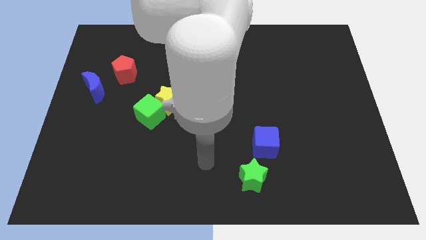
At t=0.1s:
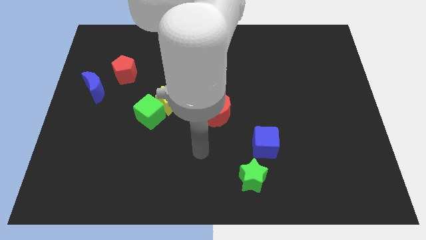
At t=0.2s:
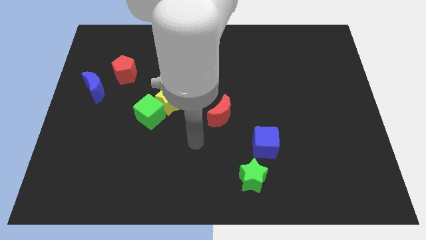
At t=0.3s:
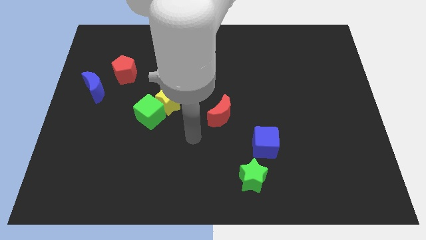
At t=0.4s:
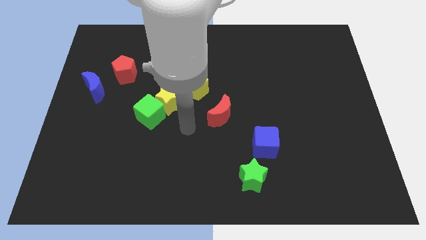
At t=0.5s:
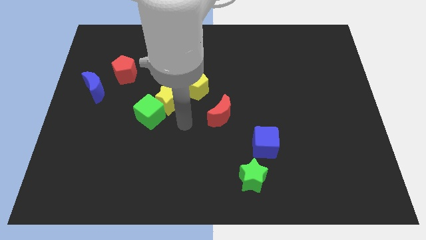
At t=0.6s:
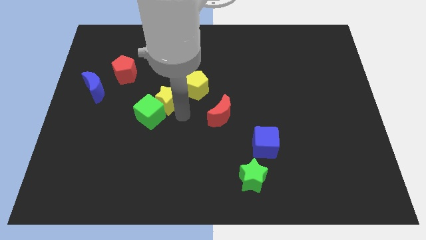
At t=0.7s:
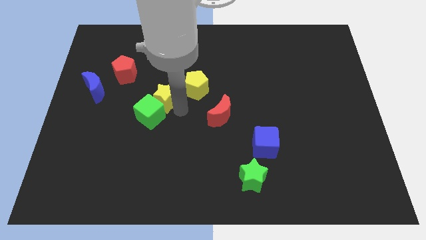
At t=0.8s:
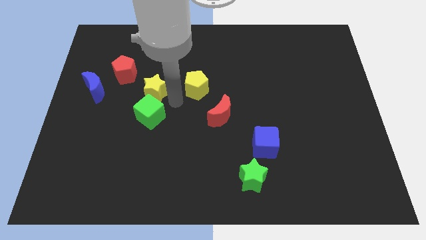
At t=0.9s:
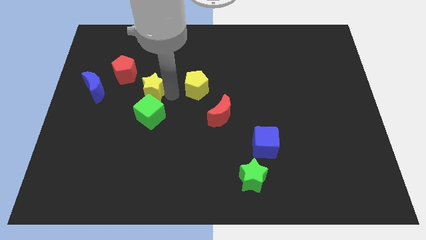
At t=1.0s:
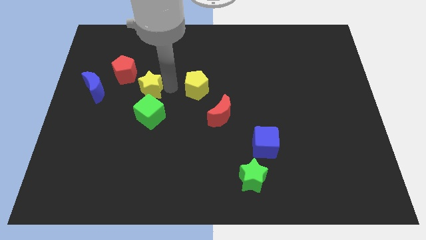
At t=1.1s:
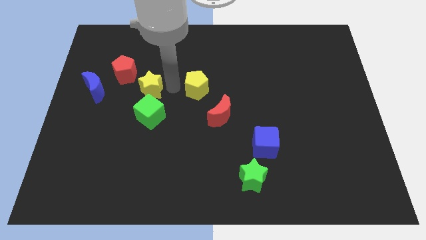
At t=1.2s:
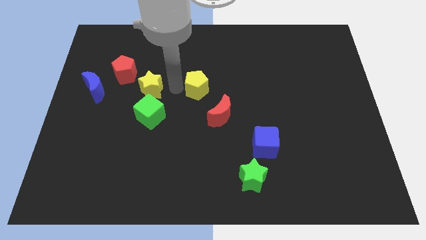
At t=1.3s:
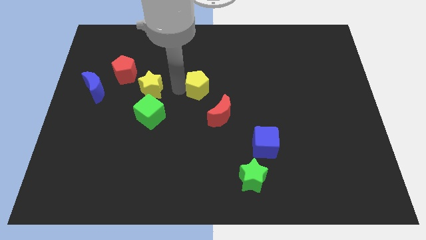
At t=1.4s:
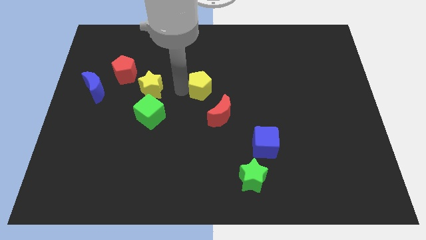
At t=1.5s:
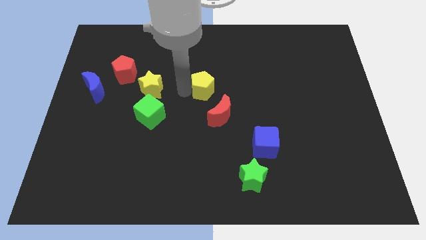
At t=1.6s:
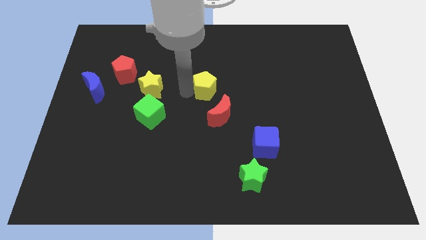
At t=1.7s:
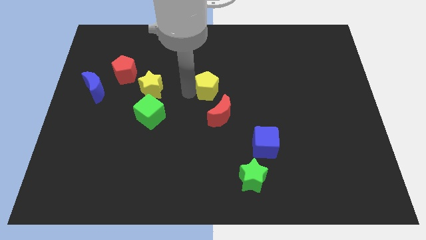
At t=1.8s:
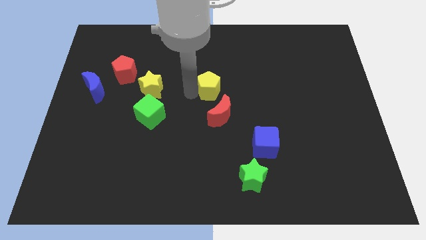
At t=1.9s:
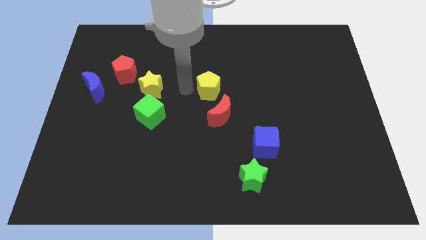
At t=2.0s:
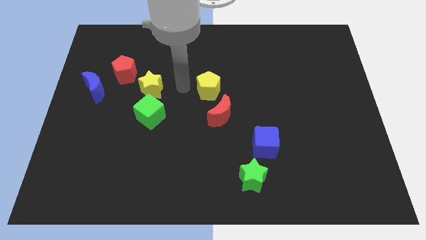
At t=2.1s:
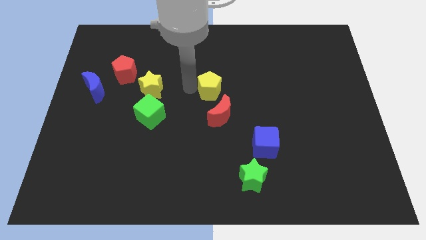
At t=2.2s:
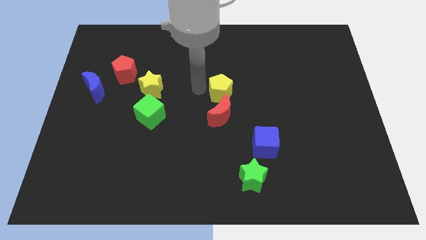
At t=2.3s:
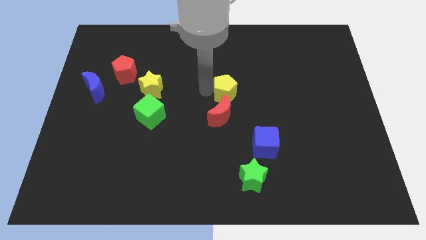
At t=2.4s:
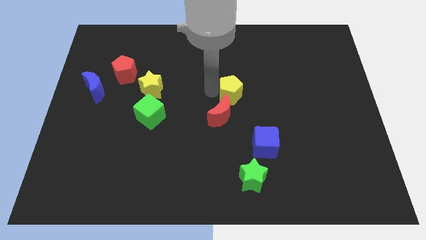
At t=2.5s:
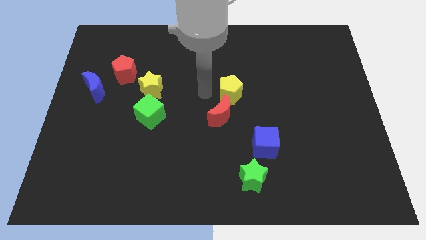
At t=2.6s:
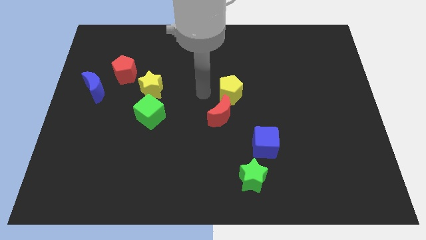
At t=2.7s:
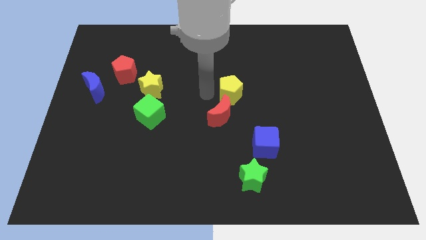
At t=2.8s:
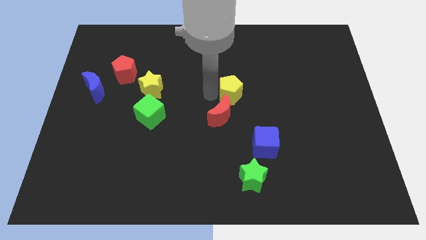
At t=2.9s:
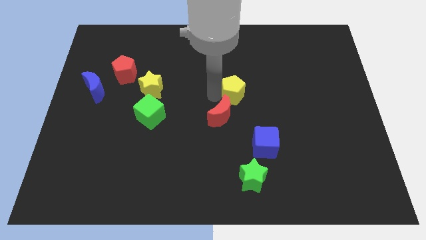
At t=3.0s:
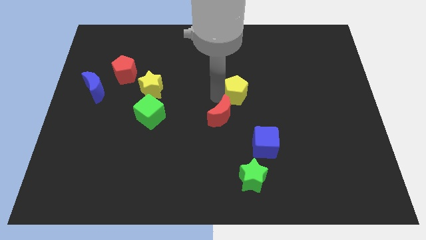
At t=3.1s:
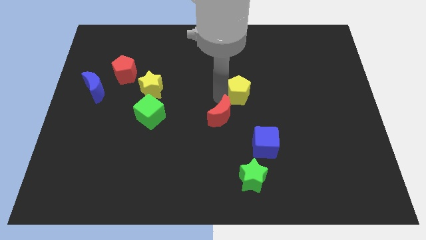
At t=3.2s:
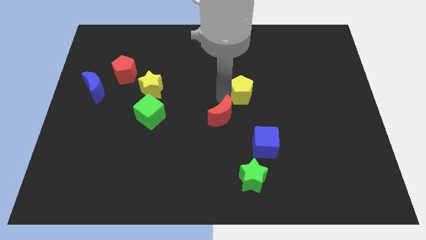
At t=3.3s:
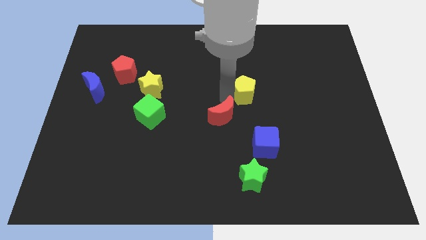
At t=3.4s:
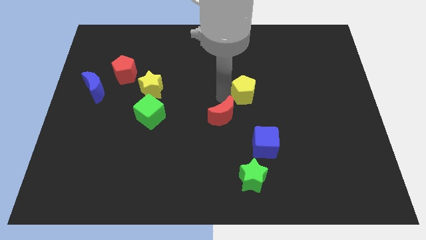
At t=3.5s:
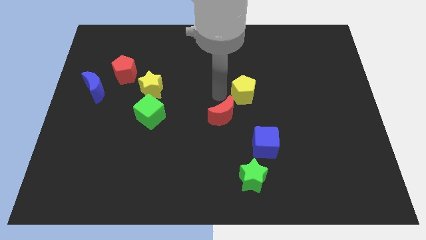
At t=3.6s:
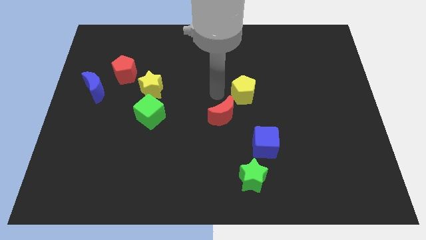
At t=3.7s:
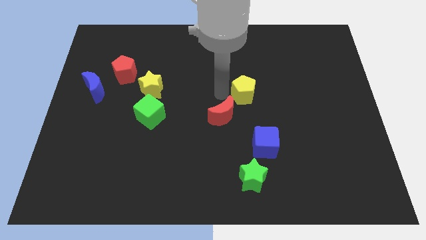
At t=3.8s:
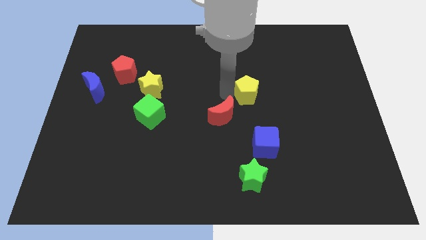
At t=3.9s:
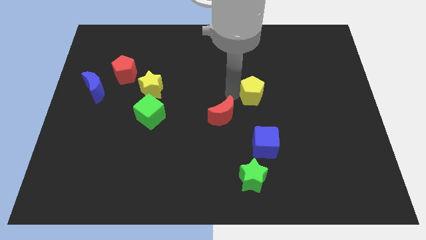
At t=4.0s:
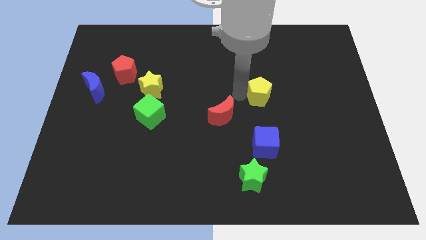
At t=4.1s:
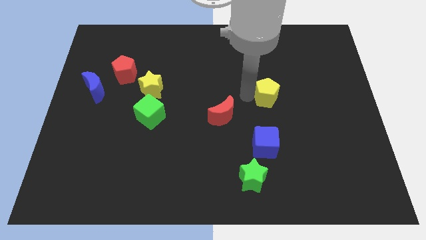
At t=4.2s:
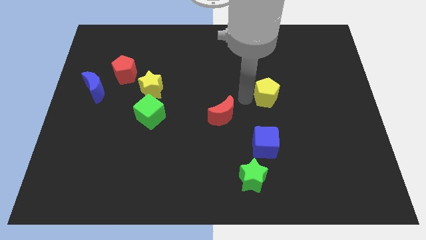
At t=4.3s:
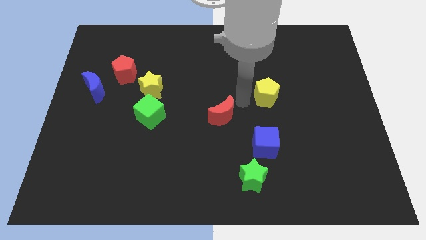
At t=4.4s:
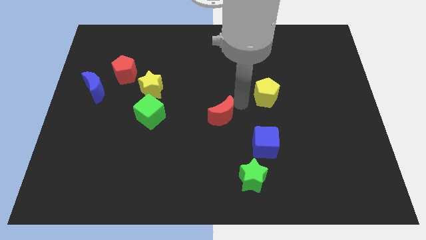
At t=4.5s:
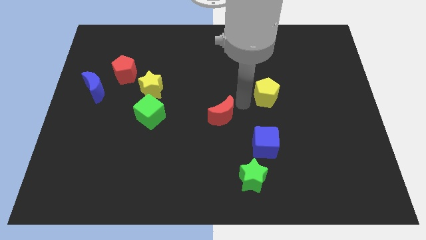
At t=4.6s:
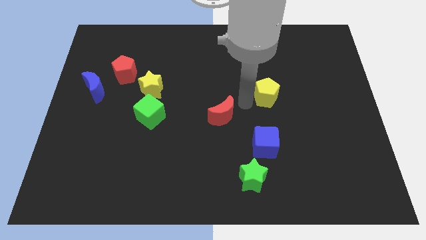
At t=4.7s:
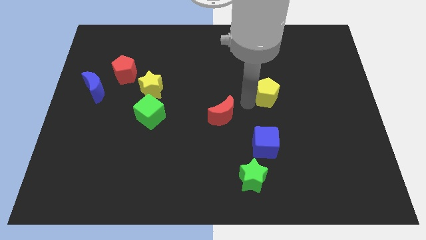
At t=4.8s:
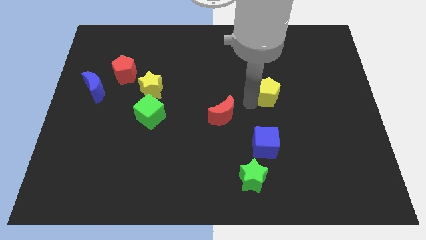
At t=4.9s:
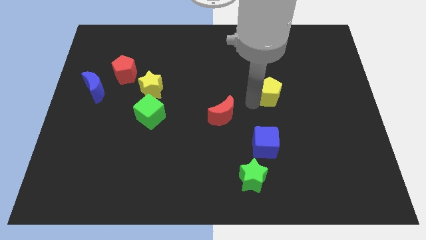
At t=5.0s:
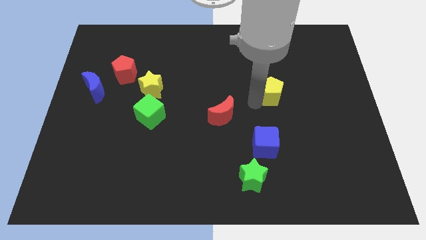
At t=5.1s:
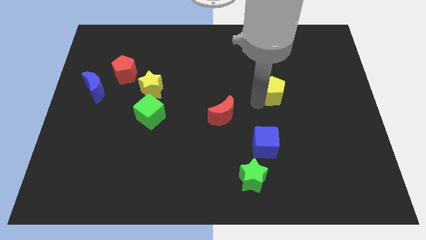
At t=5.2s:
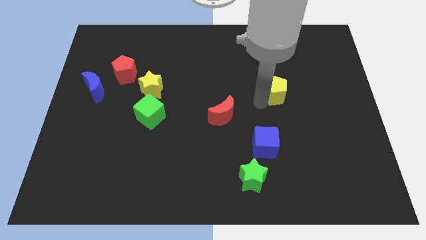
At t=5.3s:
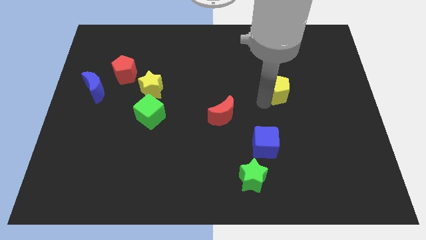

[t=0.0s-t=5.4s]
slide the yellow pentagon to the right

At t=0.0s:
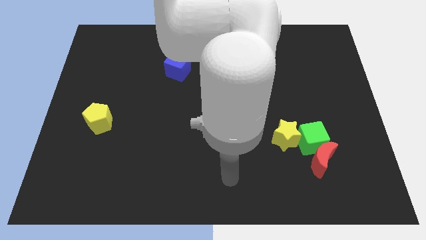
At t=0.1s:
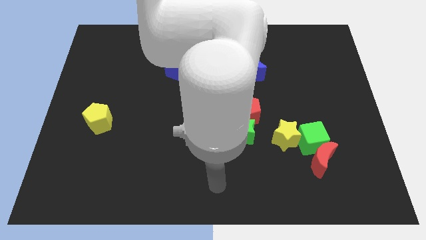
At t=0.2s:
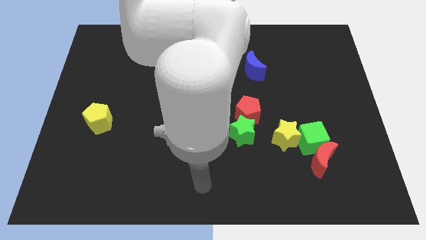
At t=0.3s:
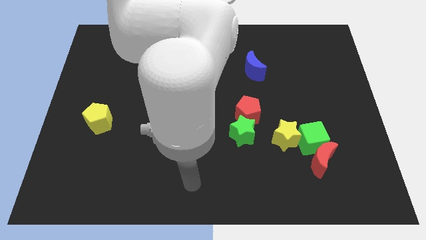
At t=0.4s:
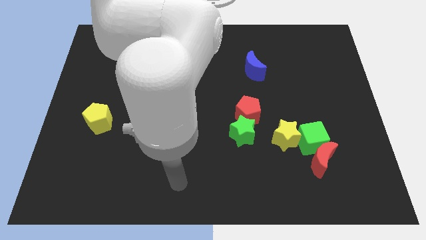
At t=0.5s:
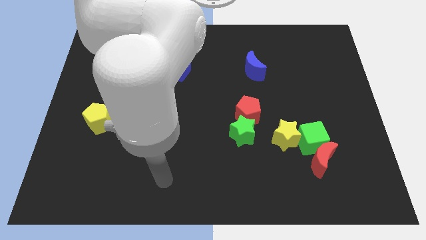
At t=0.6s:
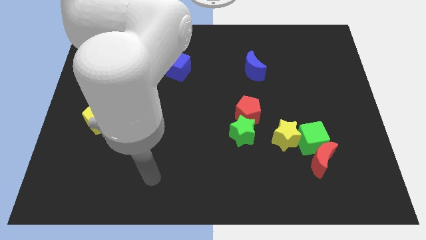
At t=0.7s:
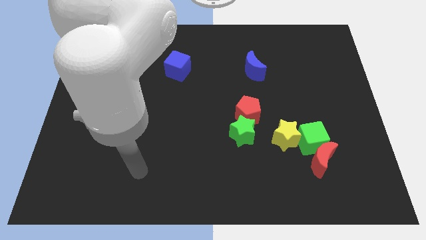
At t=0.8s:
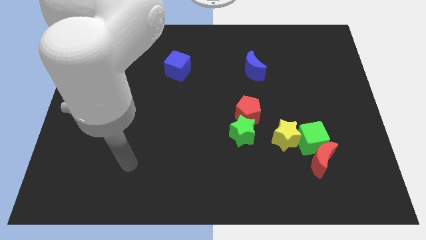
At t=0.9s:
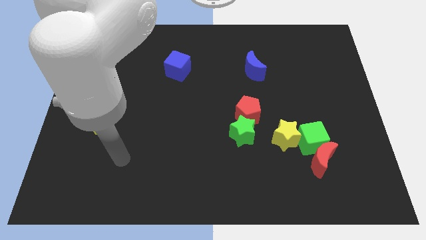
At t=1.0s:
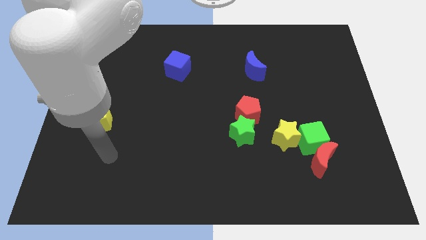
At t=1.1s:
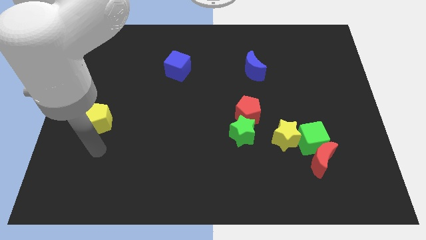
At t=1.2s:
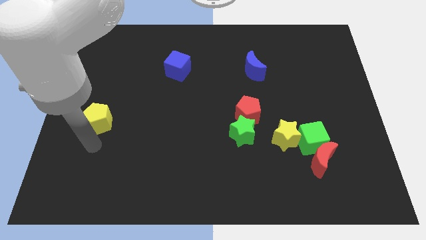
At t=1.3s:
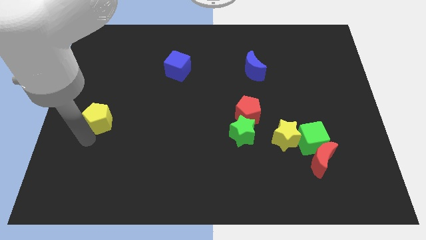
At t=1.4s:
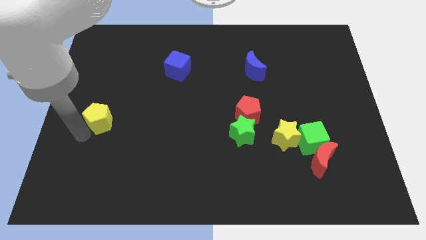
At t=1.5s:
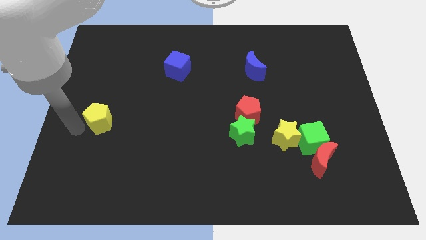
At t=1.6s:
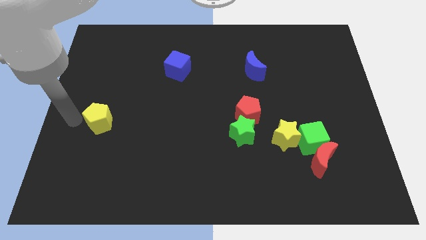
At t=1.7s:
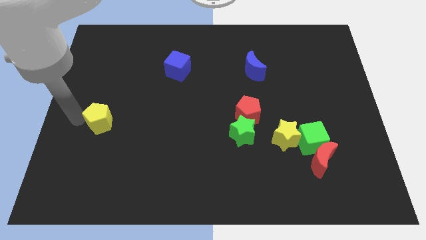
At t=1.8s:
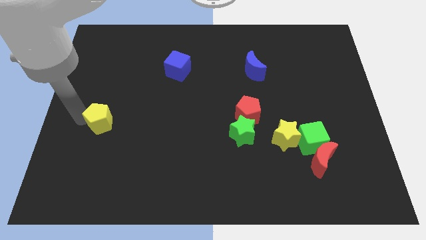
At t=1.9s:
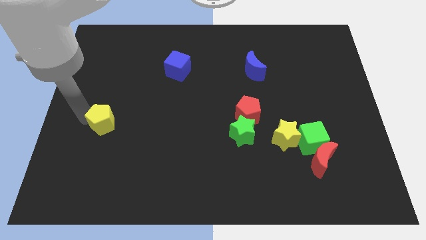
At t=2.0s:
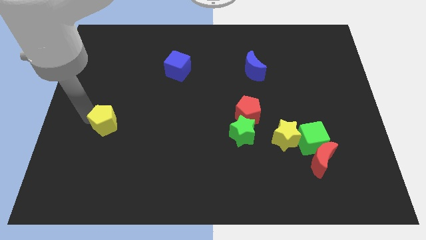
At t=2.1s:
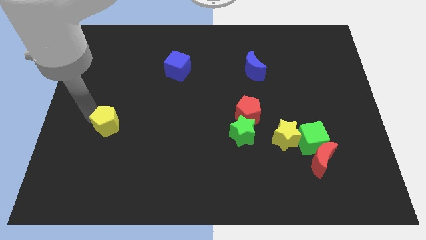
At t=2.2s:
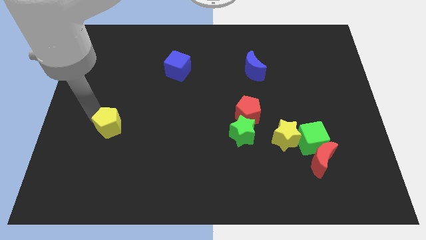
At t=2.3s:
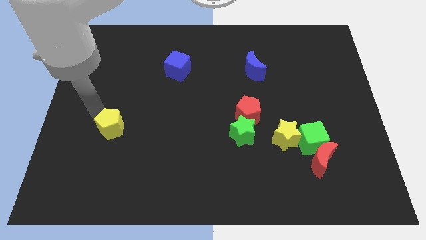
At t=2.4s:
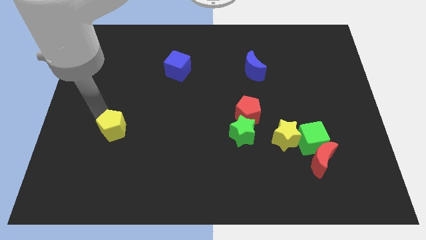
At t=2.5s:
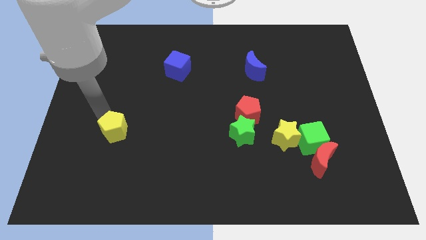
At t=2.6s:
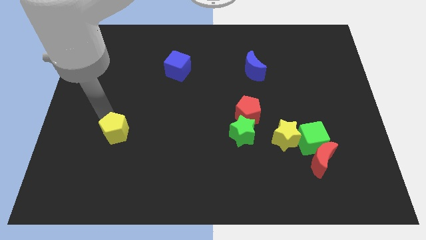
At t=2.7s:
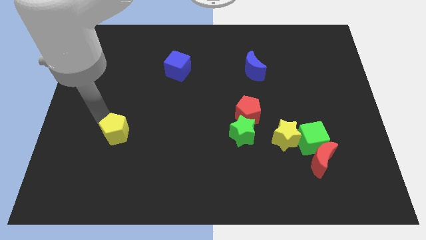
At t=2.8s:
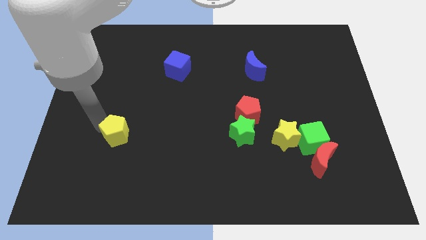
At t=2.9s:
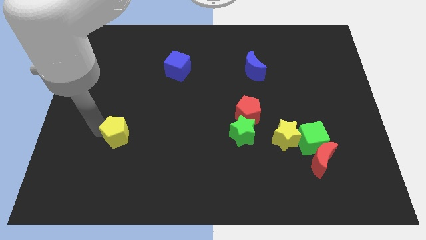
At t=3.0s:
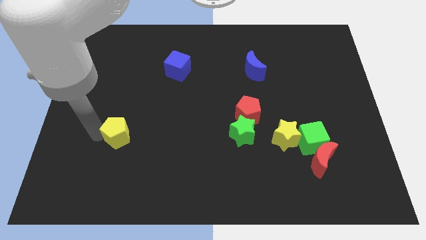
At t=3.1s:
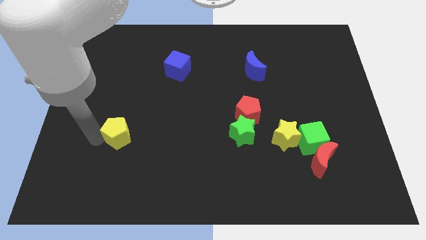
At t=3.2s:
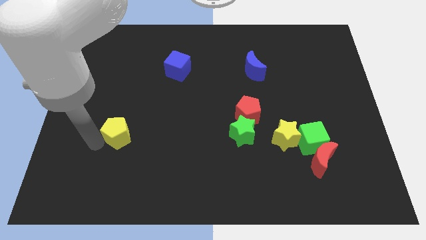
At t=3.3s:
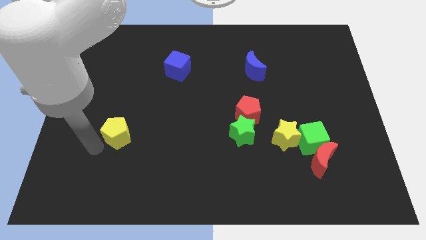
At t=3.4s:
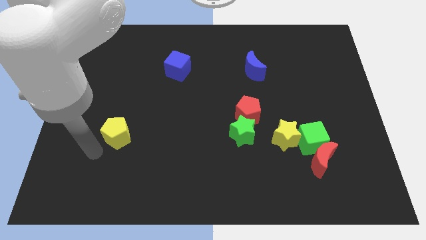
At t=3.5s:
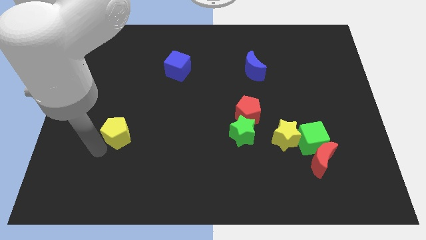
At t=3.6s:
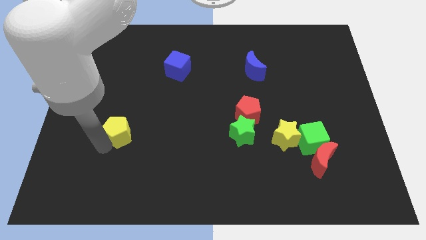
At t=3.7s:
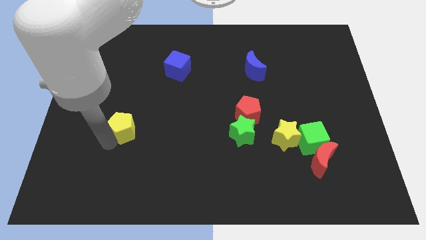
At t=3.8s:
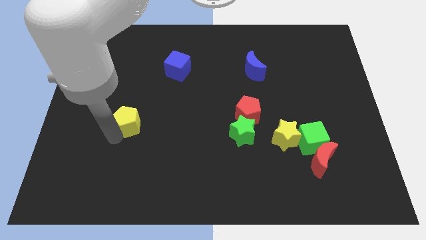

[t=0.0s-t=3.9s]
slide the yellow pentagon a bit right
